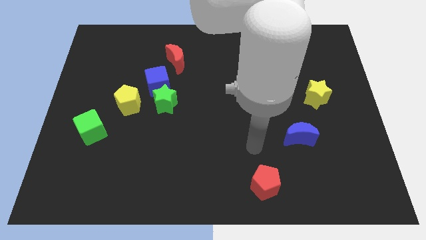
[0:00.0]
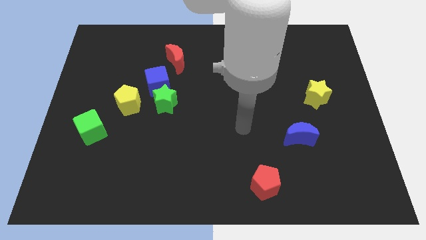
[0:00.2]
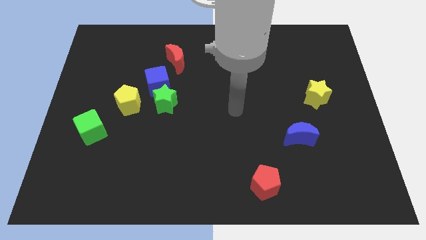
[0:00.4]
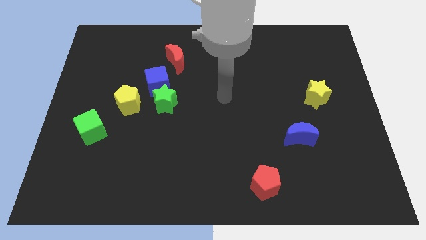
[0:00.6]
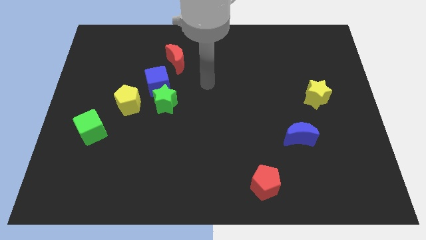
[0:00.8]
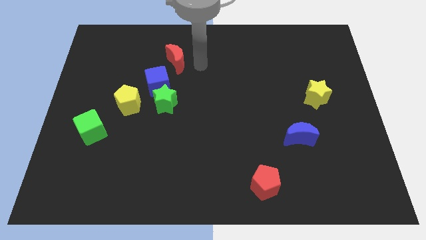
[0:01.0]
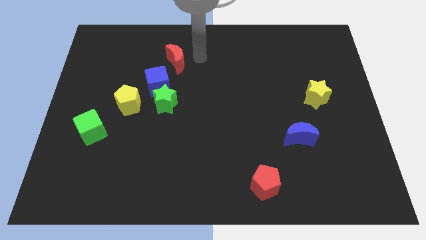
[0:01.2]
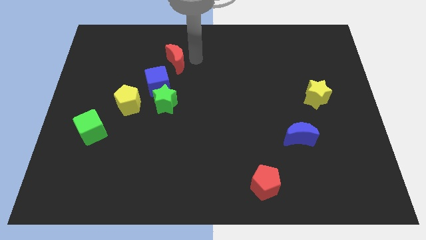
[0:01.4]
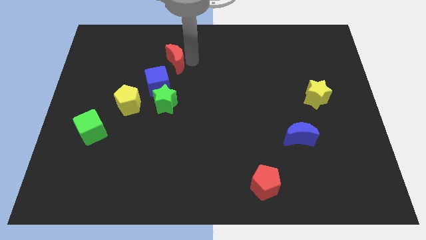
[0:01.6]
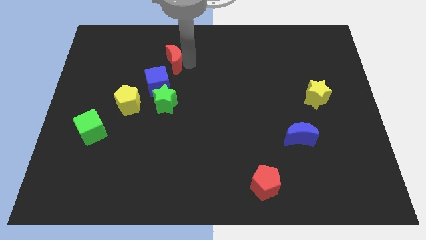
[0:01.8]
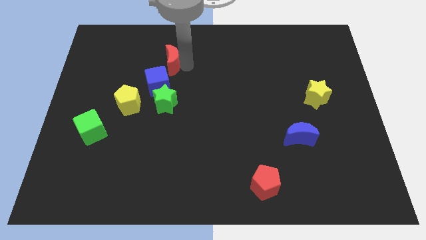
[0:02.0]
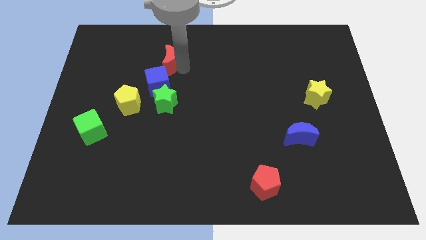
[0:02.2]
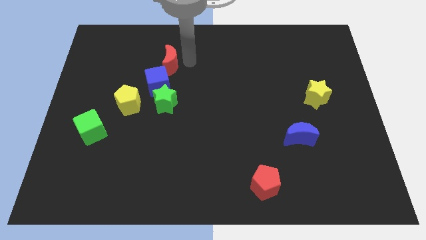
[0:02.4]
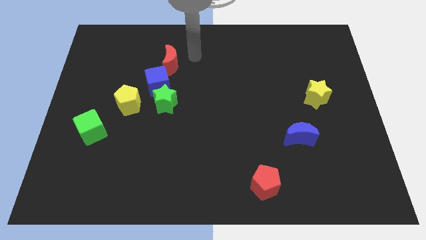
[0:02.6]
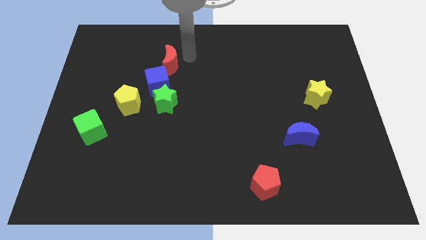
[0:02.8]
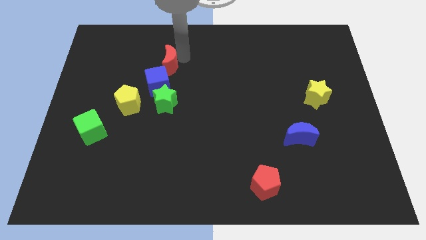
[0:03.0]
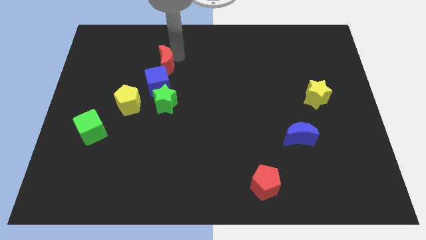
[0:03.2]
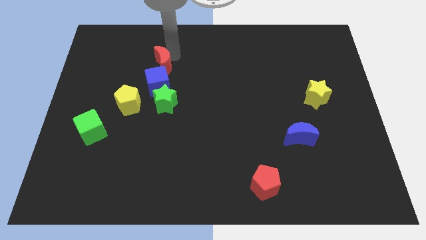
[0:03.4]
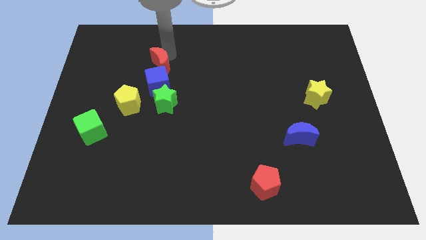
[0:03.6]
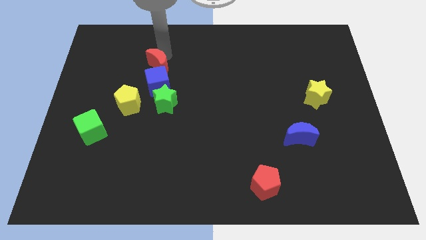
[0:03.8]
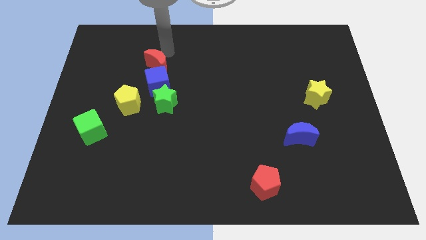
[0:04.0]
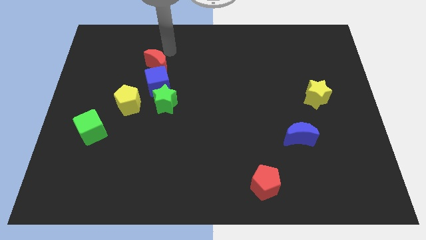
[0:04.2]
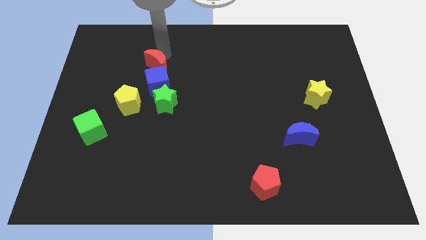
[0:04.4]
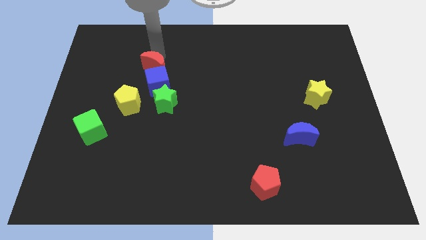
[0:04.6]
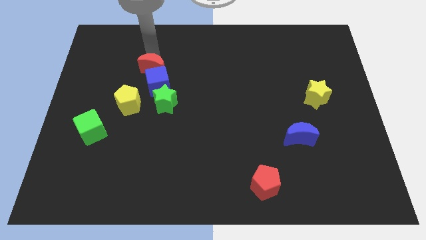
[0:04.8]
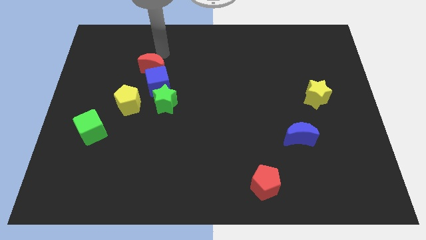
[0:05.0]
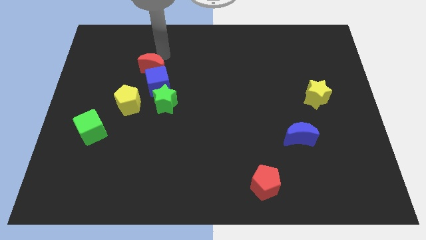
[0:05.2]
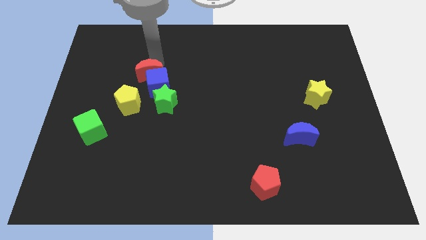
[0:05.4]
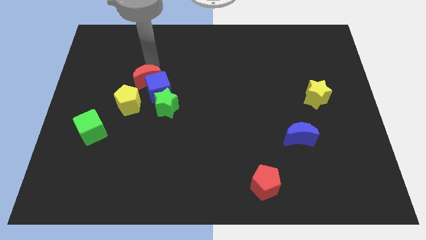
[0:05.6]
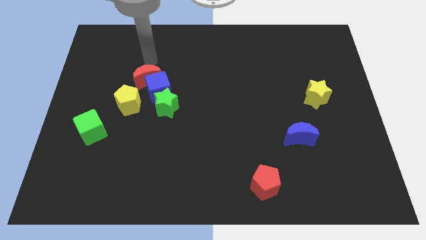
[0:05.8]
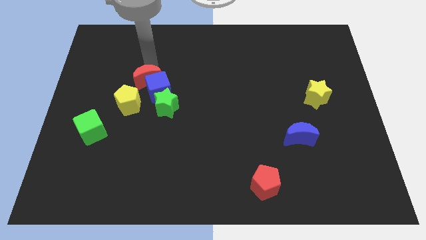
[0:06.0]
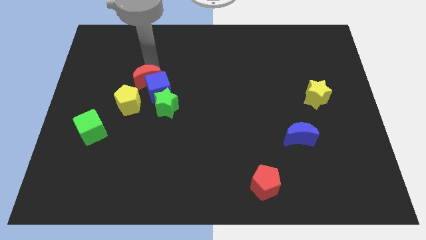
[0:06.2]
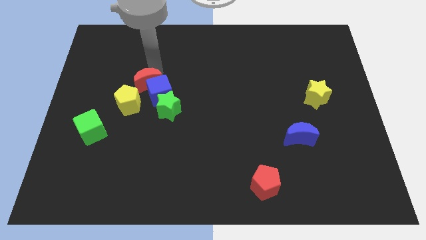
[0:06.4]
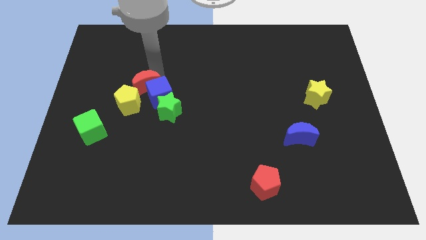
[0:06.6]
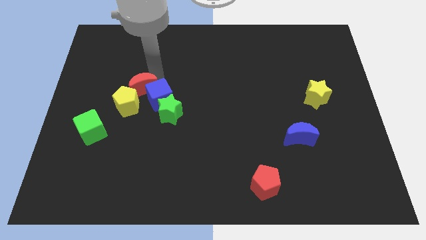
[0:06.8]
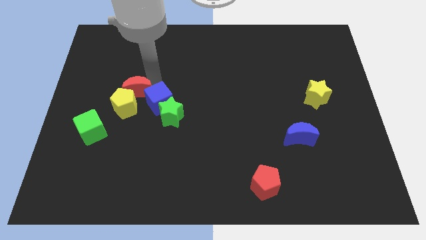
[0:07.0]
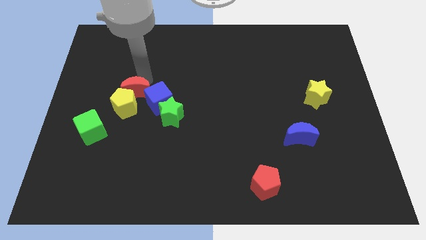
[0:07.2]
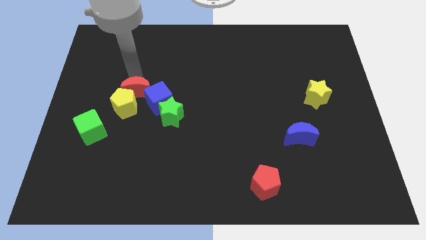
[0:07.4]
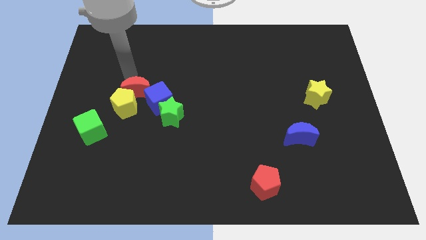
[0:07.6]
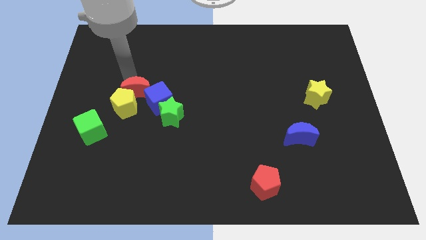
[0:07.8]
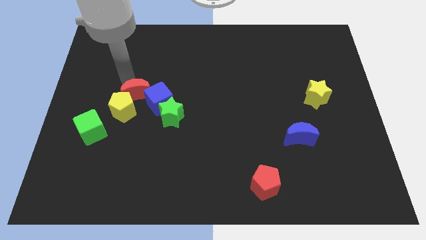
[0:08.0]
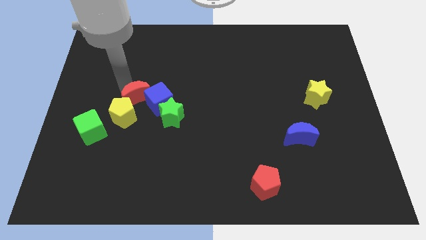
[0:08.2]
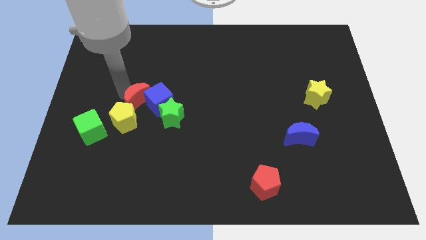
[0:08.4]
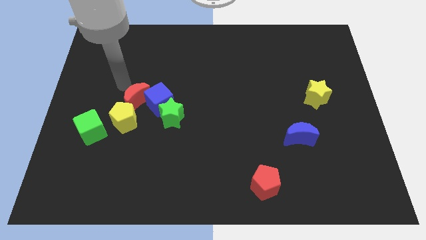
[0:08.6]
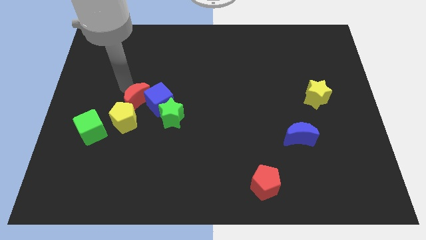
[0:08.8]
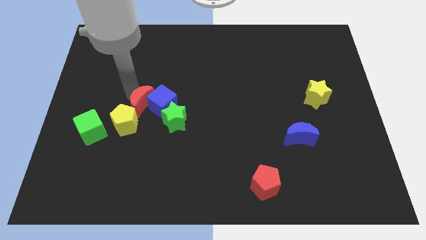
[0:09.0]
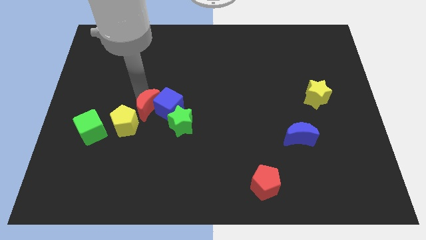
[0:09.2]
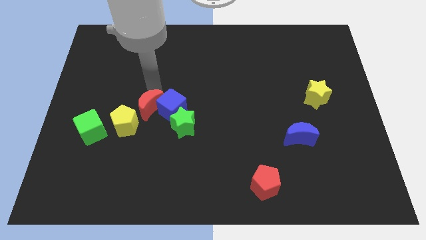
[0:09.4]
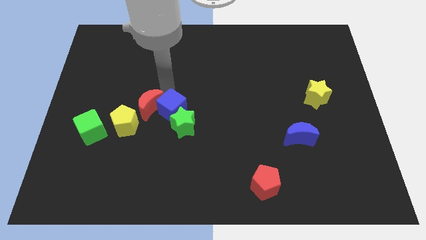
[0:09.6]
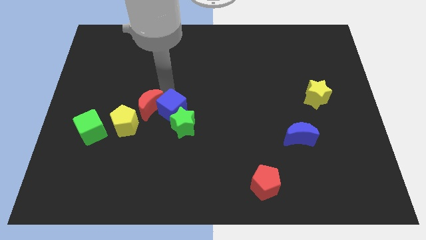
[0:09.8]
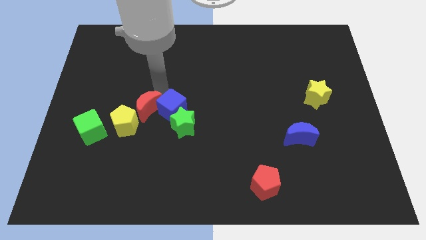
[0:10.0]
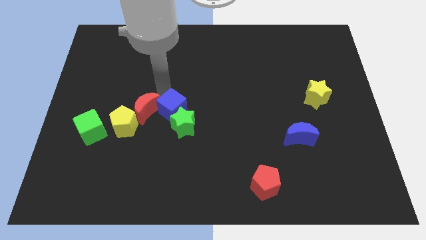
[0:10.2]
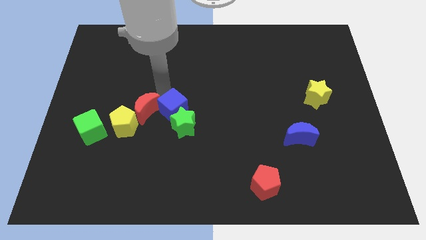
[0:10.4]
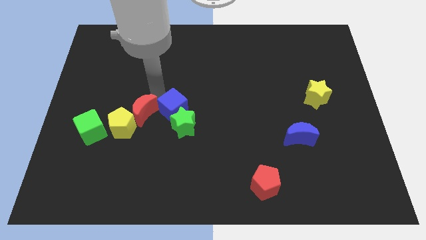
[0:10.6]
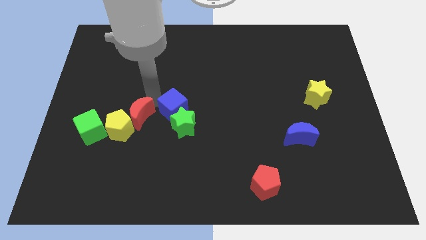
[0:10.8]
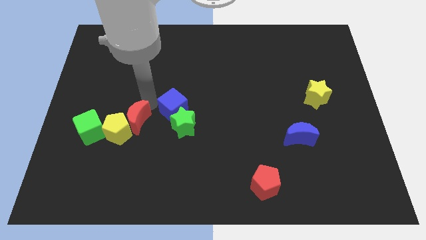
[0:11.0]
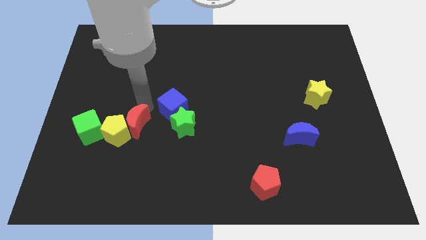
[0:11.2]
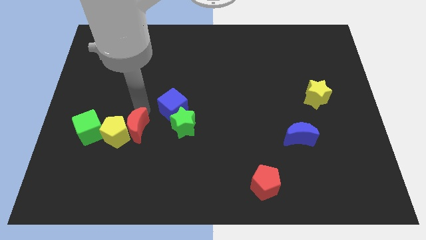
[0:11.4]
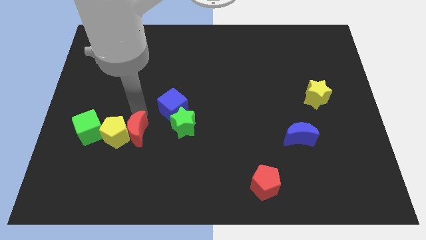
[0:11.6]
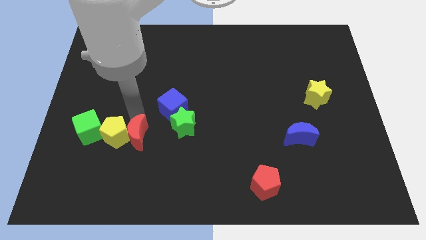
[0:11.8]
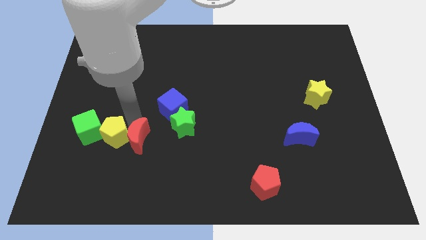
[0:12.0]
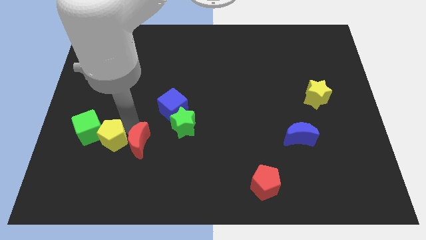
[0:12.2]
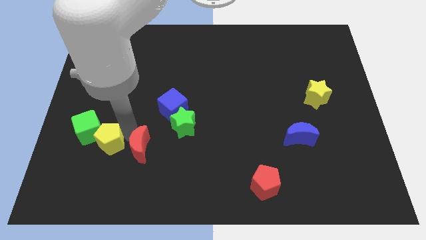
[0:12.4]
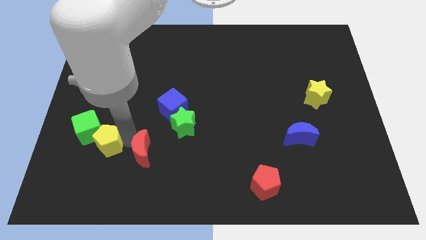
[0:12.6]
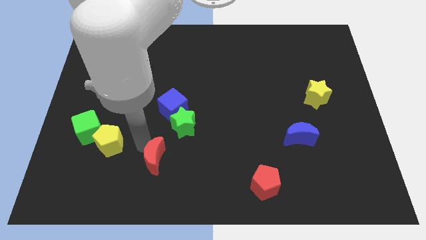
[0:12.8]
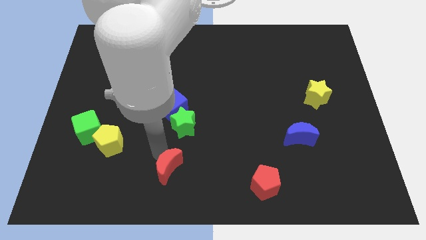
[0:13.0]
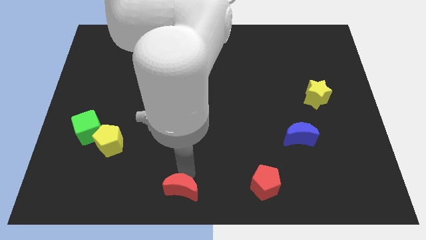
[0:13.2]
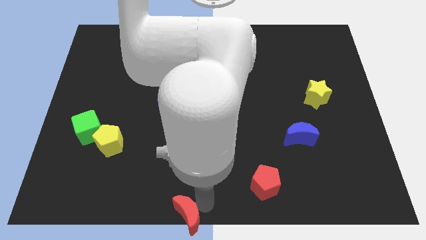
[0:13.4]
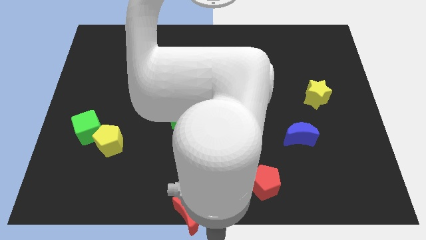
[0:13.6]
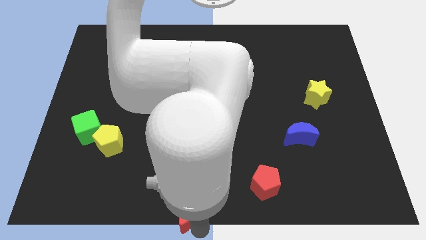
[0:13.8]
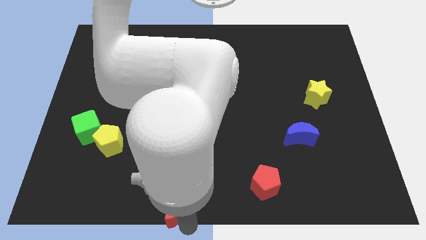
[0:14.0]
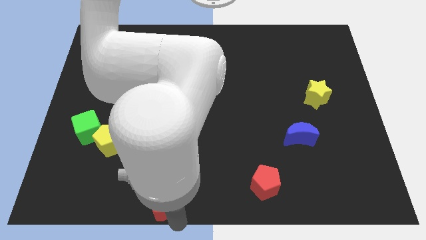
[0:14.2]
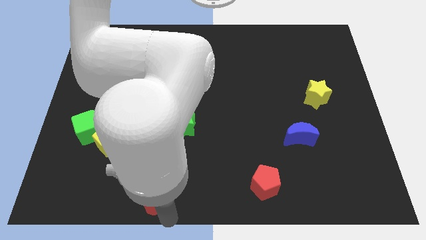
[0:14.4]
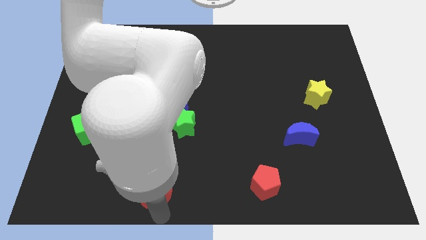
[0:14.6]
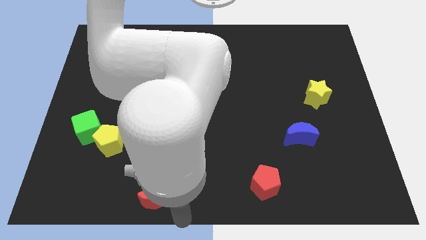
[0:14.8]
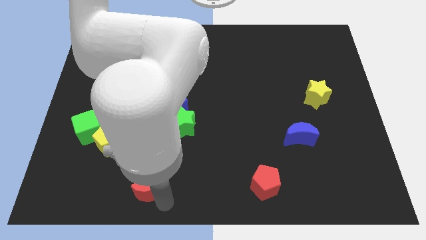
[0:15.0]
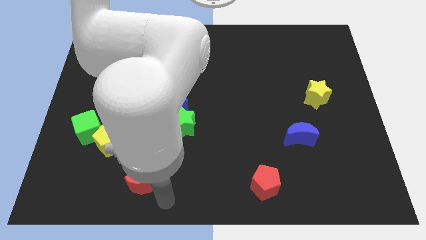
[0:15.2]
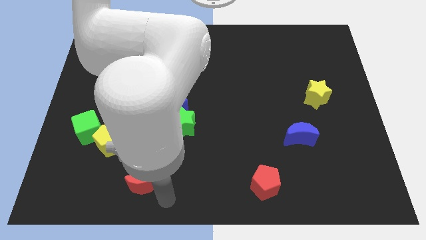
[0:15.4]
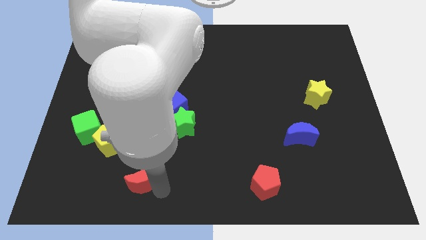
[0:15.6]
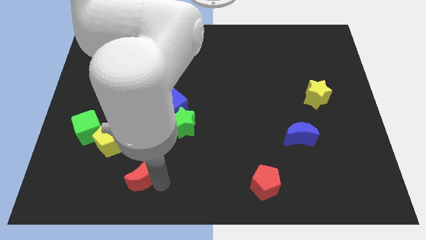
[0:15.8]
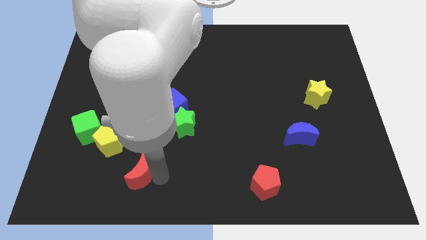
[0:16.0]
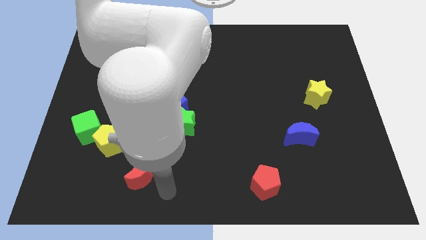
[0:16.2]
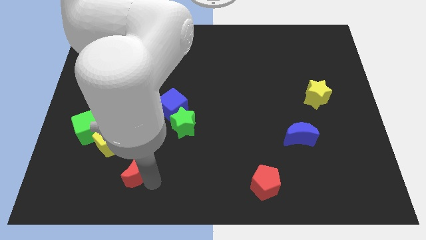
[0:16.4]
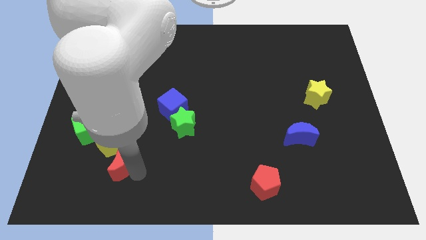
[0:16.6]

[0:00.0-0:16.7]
push the red moon diagonally down and to the right of the green cube
